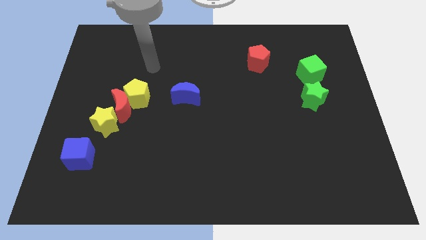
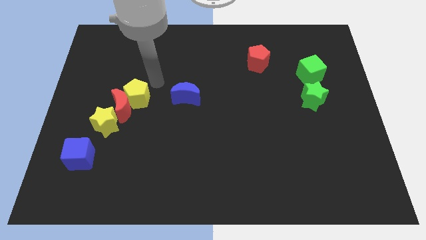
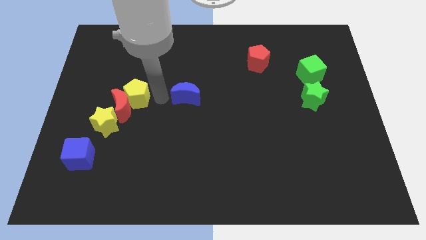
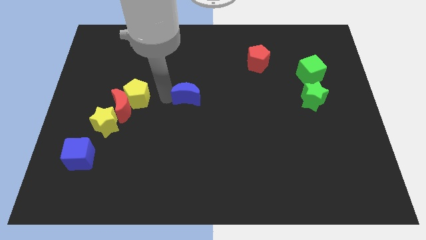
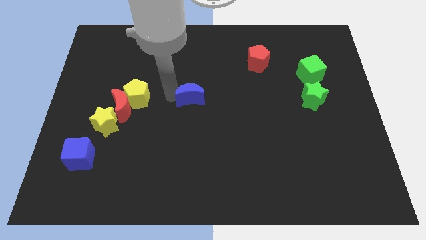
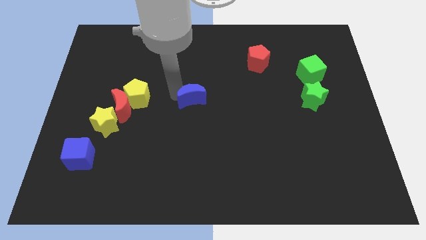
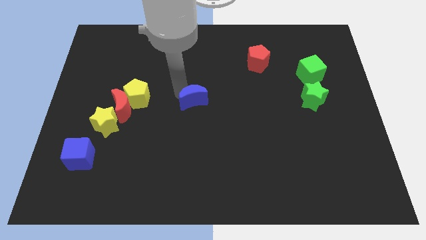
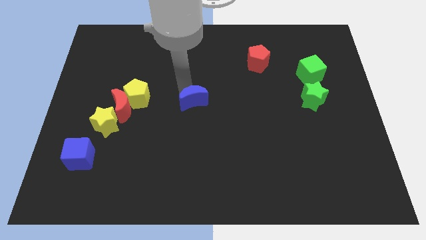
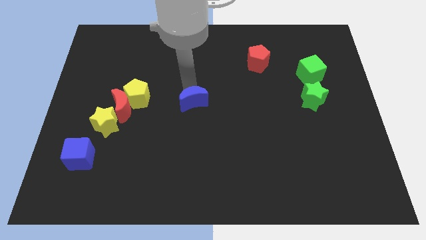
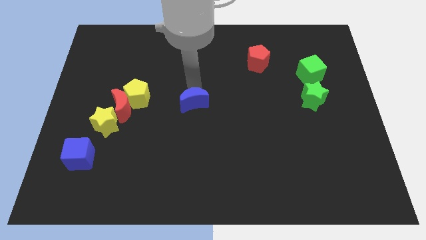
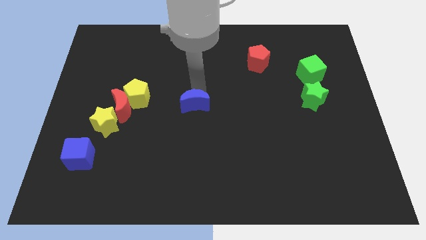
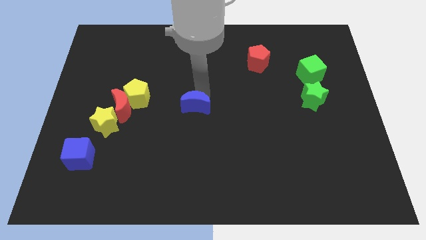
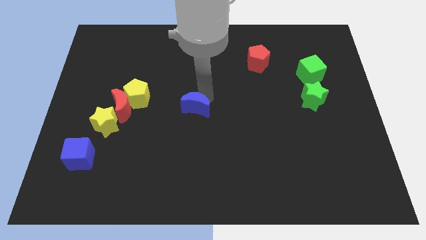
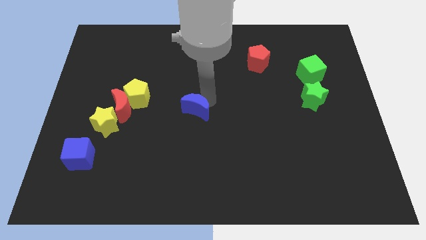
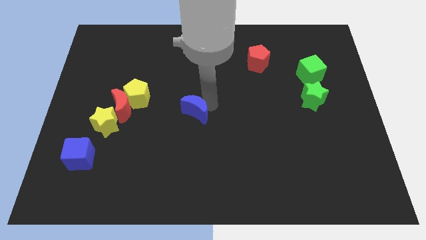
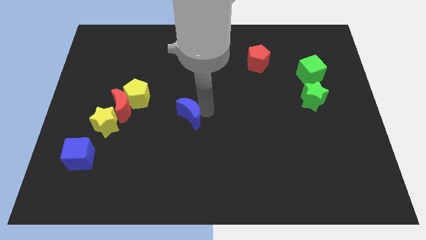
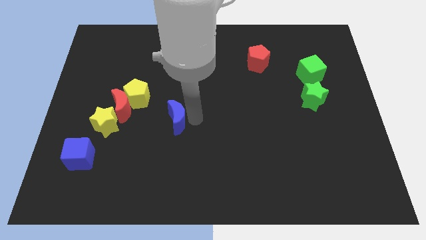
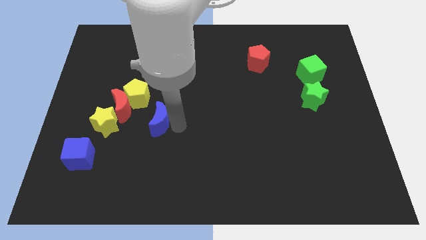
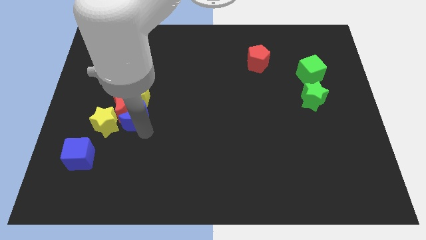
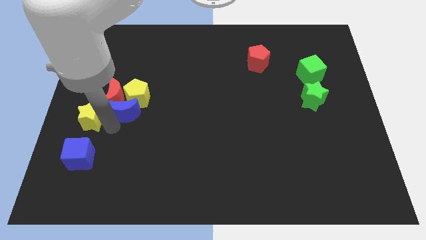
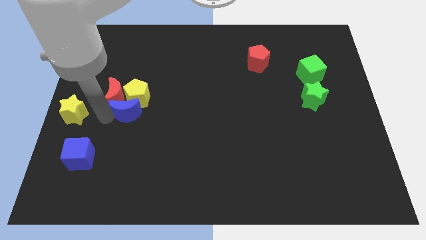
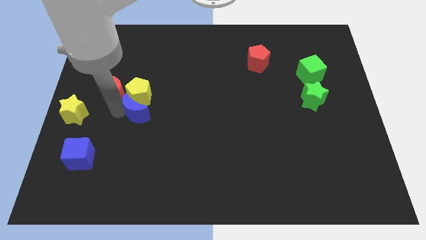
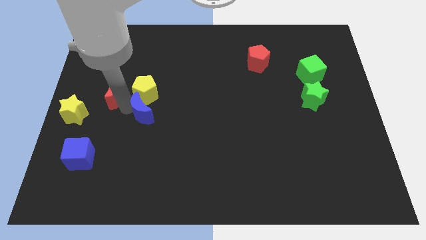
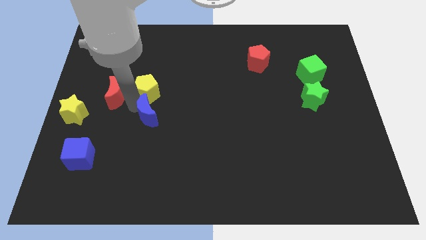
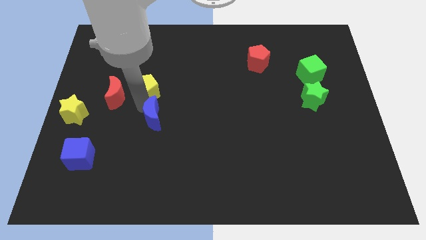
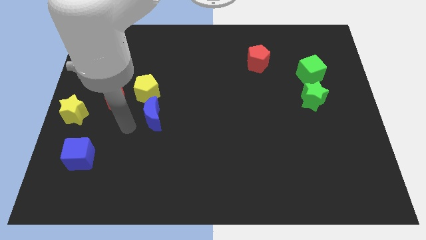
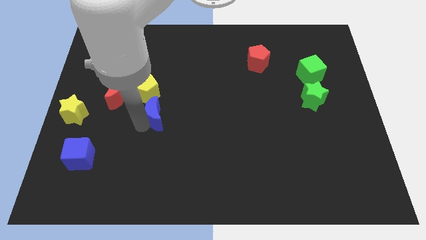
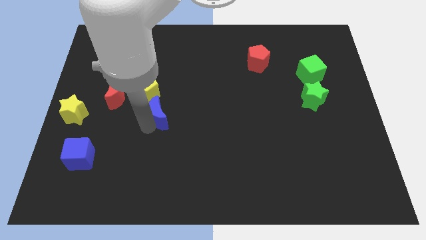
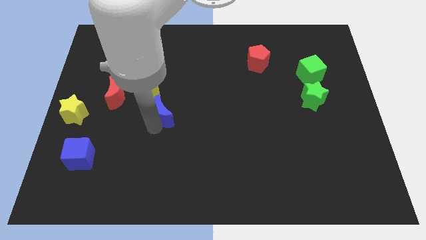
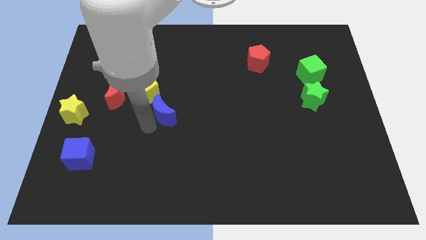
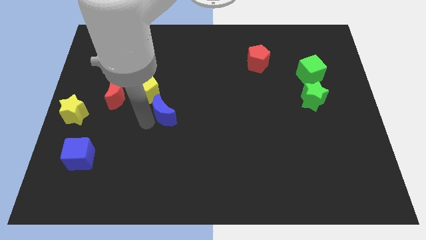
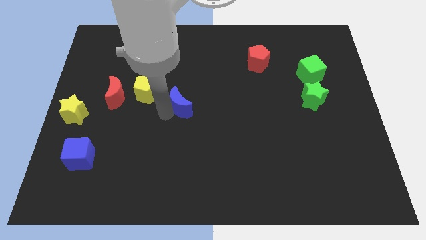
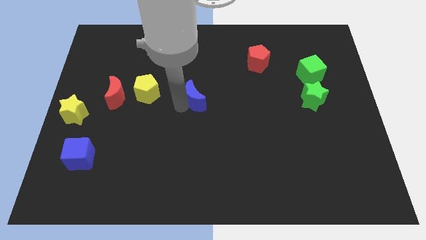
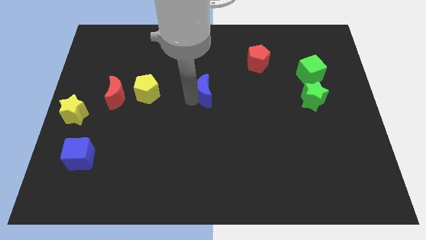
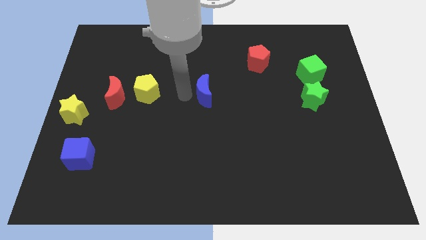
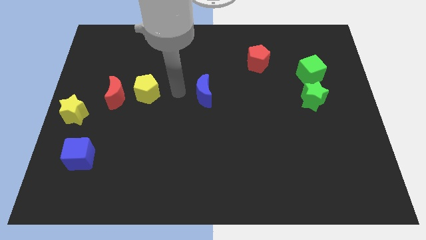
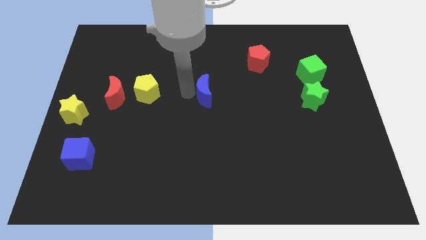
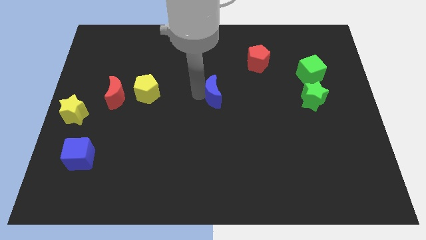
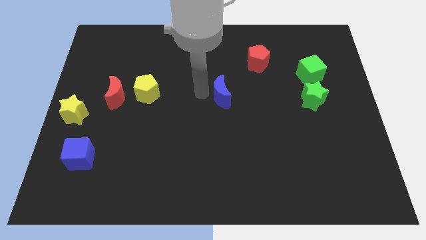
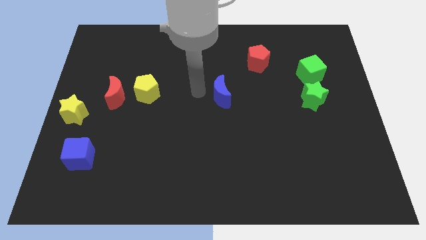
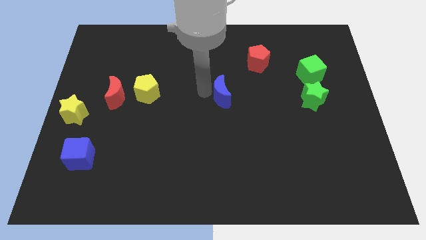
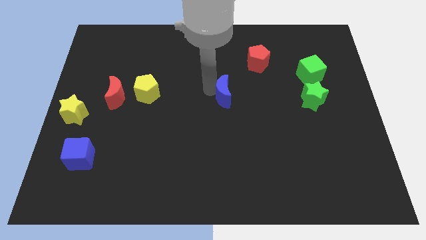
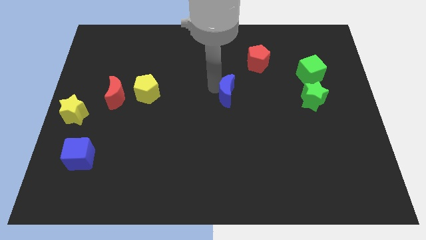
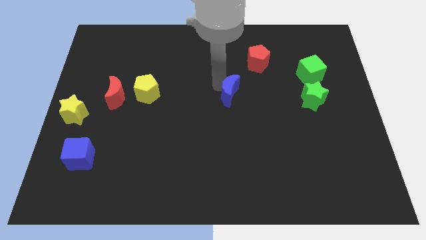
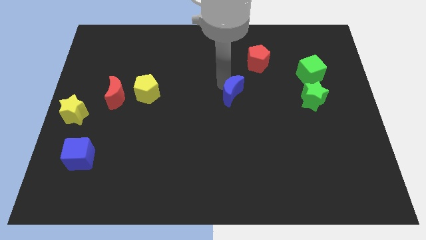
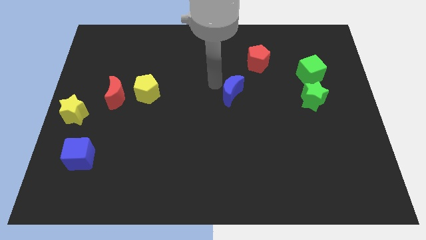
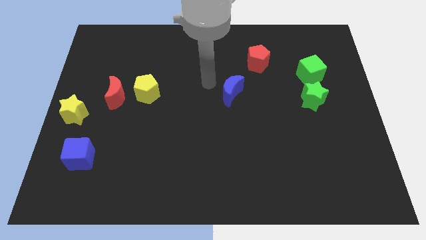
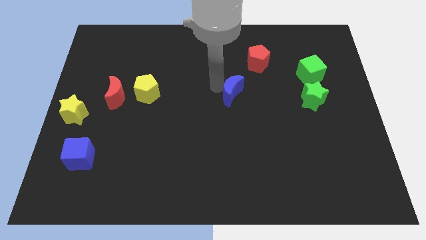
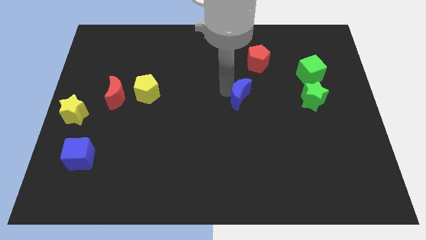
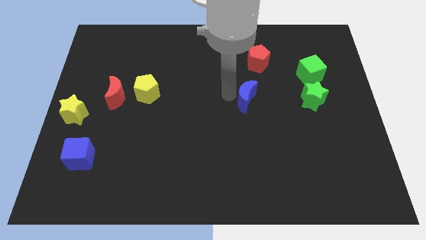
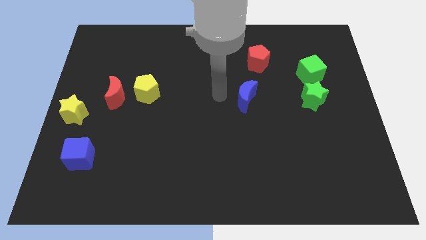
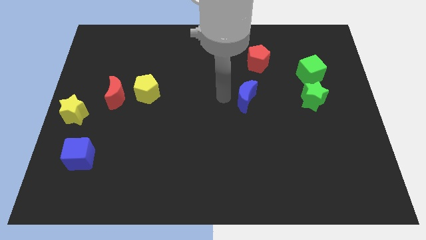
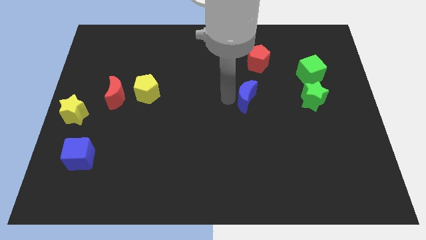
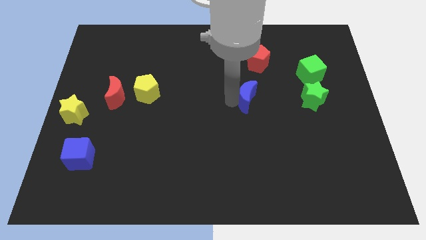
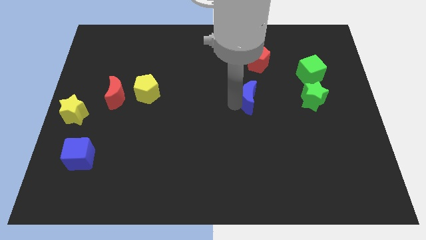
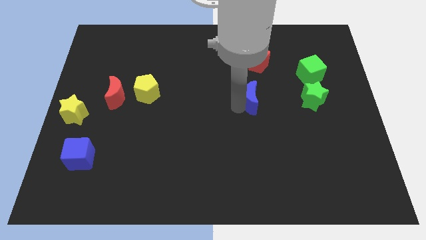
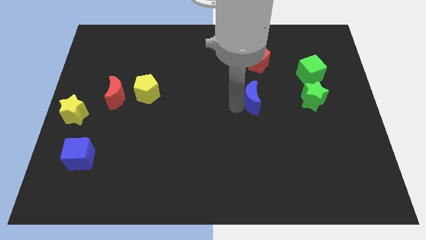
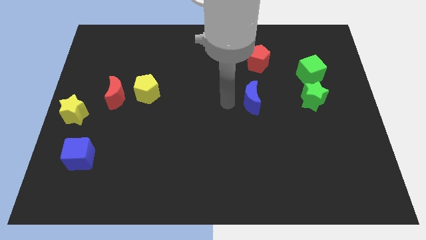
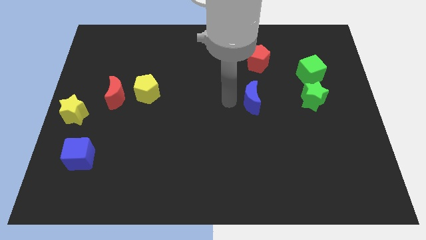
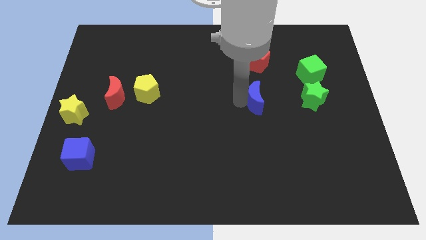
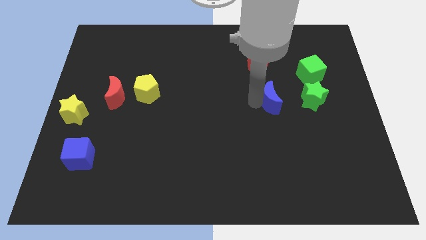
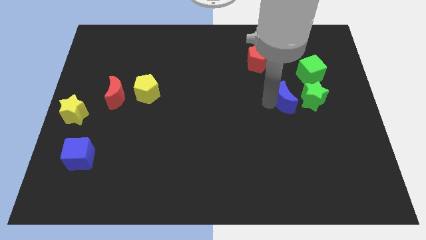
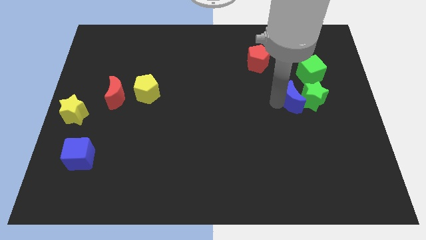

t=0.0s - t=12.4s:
push the blue moon close to the green star
